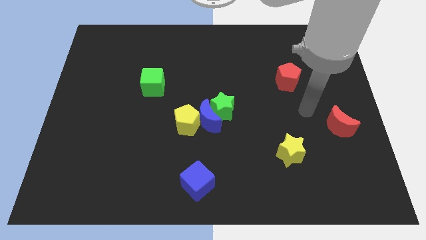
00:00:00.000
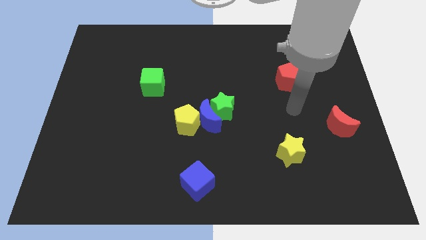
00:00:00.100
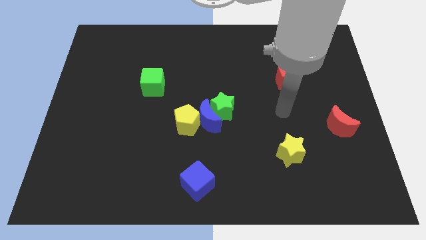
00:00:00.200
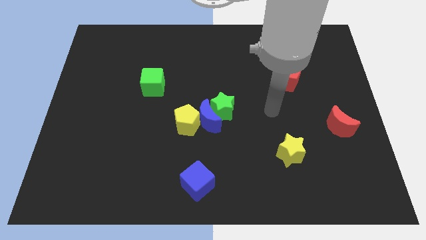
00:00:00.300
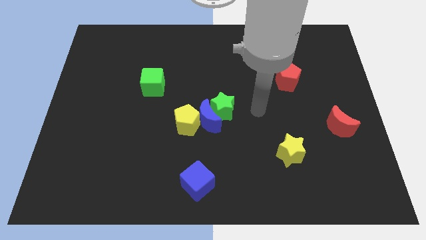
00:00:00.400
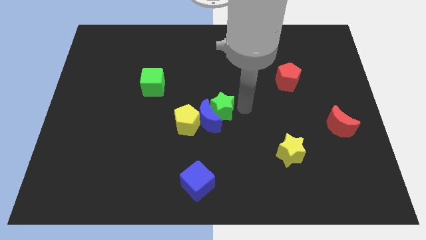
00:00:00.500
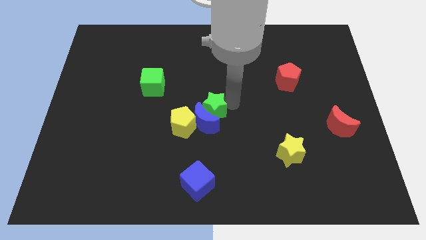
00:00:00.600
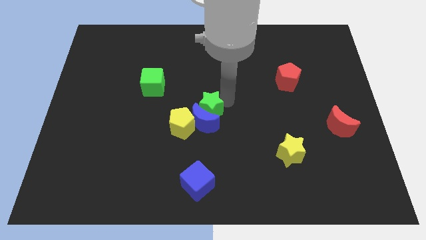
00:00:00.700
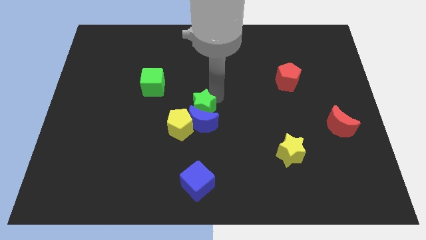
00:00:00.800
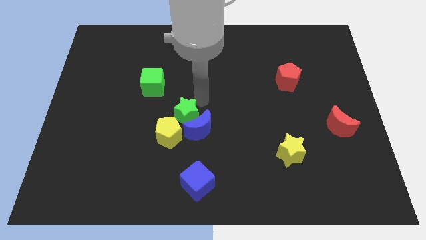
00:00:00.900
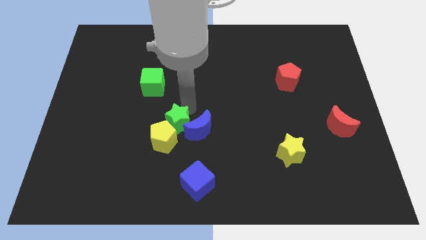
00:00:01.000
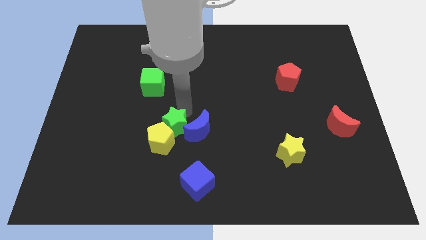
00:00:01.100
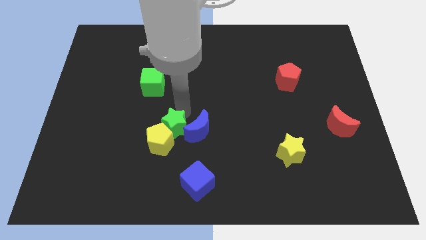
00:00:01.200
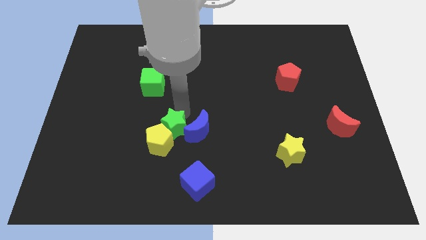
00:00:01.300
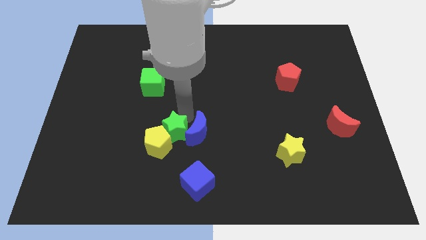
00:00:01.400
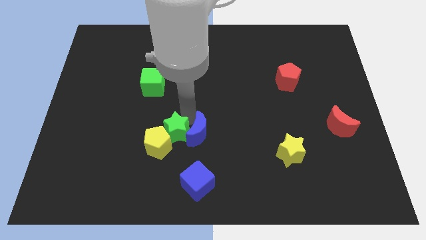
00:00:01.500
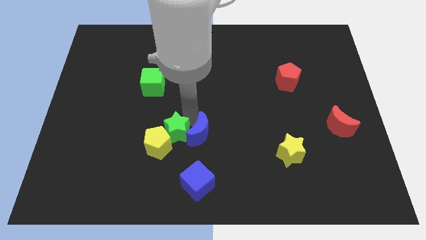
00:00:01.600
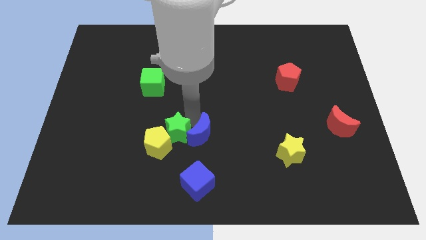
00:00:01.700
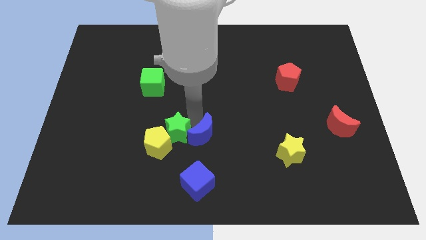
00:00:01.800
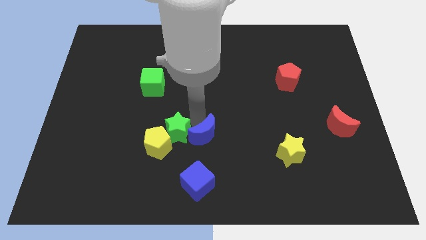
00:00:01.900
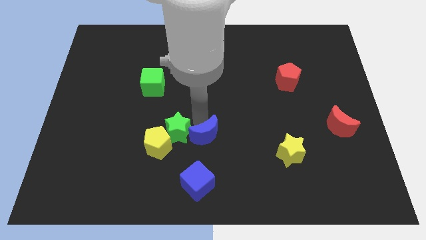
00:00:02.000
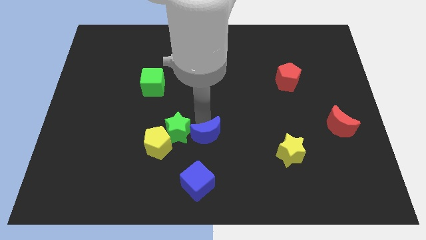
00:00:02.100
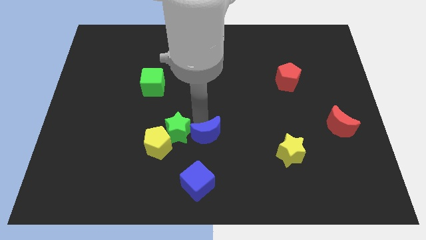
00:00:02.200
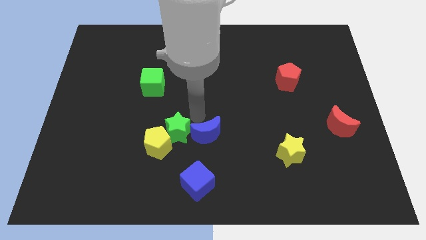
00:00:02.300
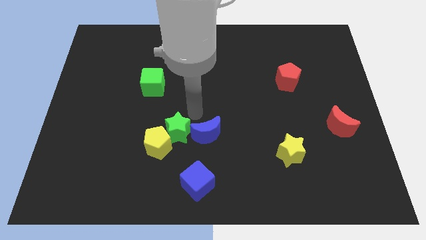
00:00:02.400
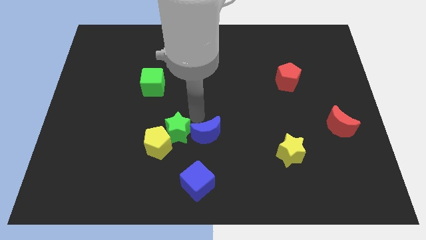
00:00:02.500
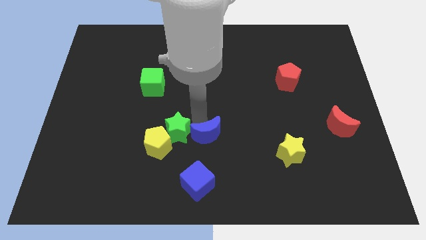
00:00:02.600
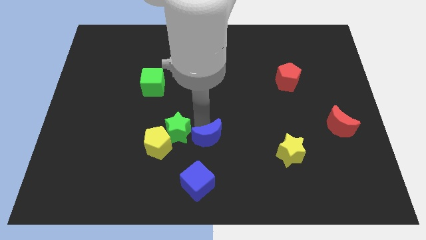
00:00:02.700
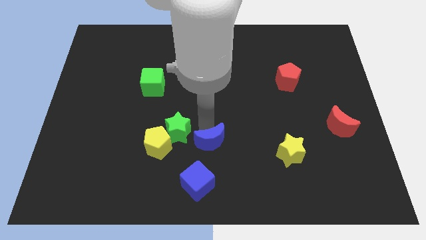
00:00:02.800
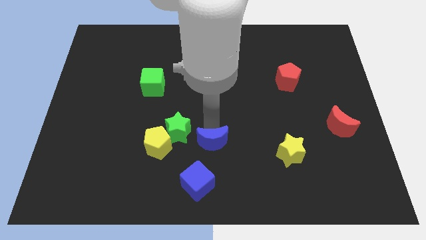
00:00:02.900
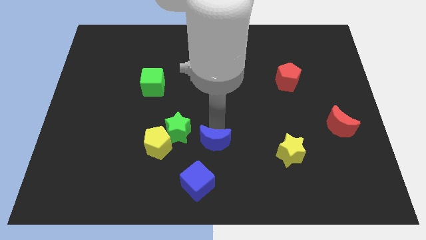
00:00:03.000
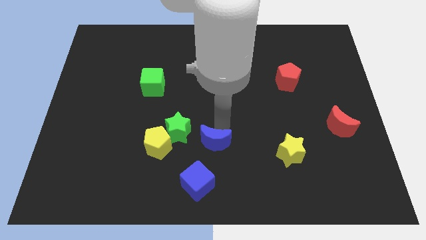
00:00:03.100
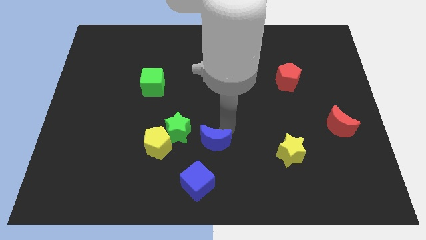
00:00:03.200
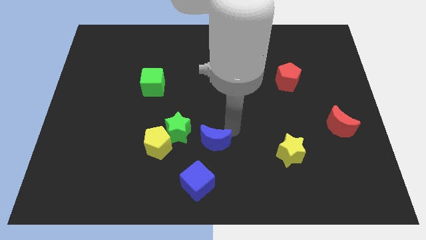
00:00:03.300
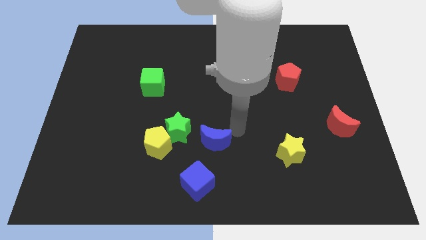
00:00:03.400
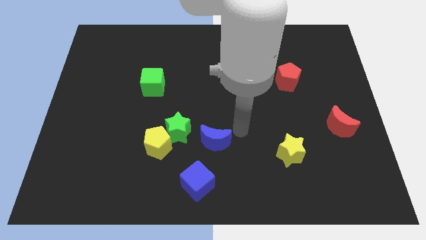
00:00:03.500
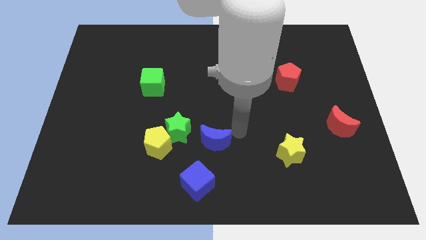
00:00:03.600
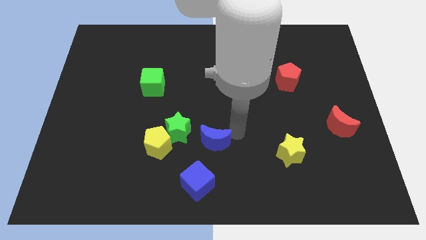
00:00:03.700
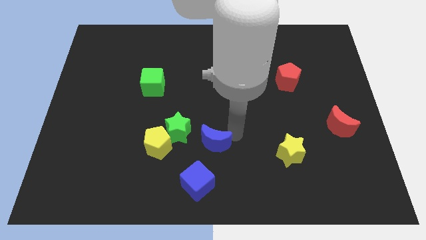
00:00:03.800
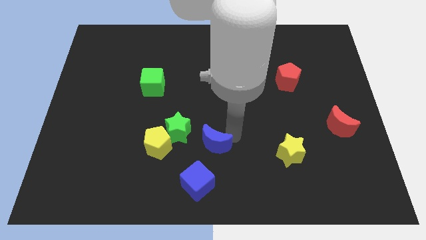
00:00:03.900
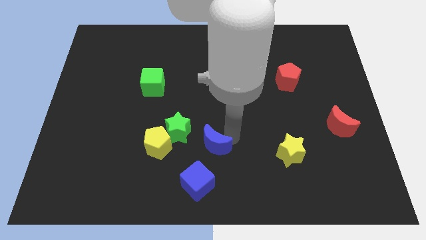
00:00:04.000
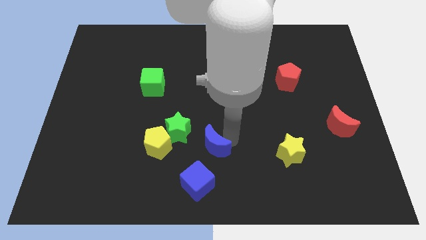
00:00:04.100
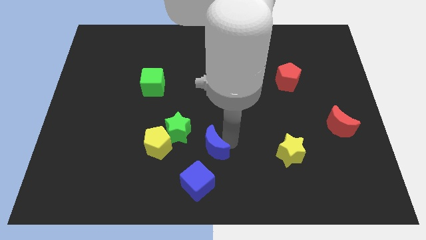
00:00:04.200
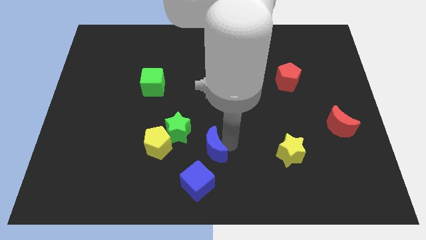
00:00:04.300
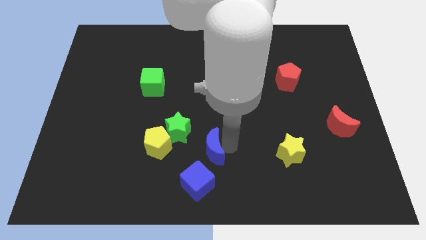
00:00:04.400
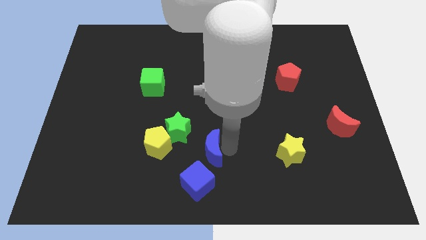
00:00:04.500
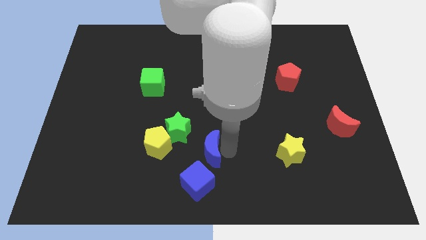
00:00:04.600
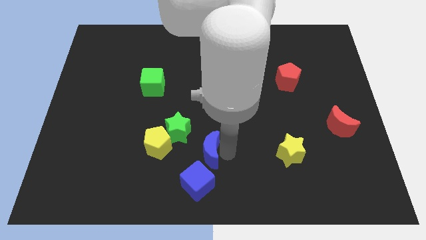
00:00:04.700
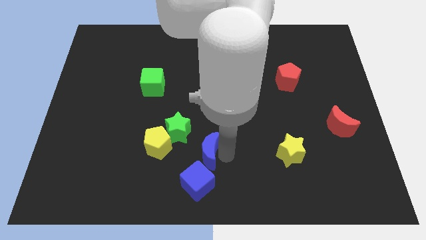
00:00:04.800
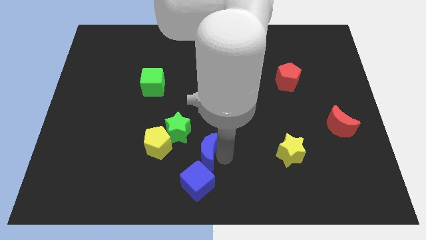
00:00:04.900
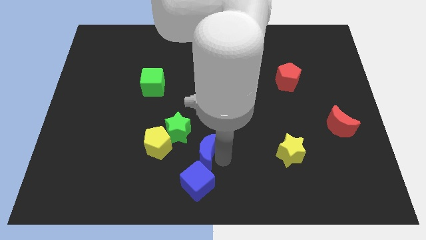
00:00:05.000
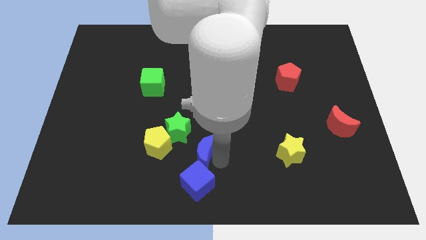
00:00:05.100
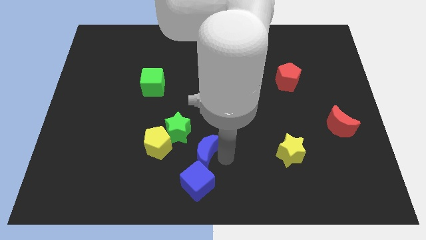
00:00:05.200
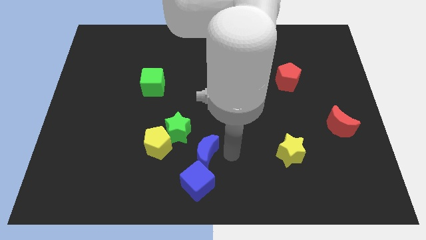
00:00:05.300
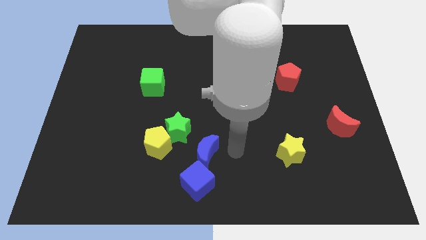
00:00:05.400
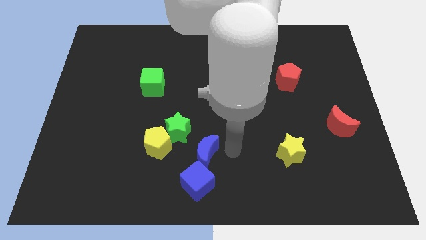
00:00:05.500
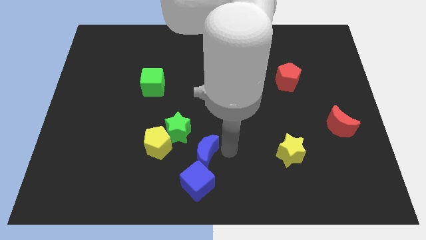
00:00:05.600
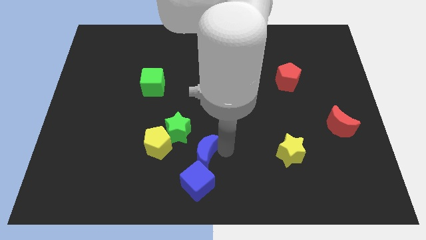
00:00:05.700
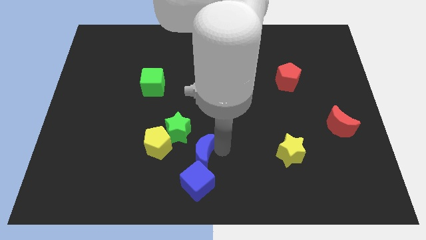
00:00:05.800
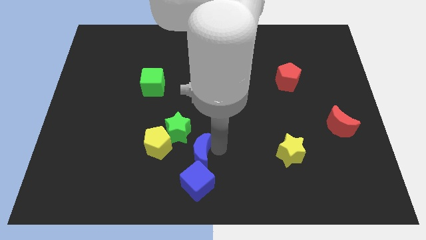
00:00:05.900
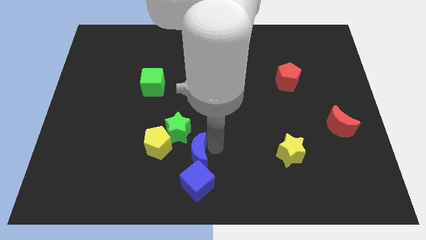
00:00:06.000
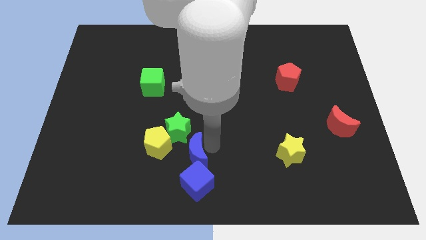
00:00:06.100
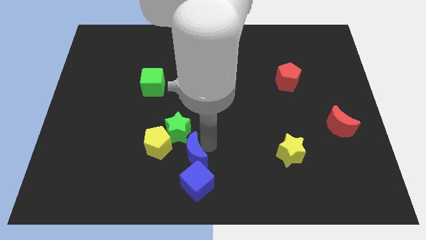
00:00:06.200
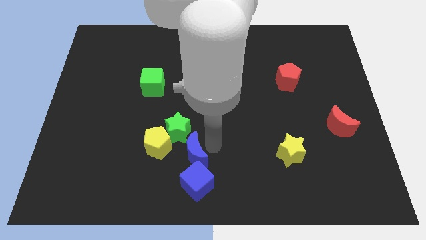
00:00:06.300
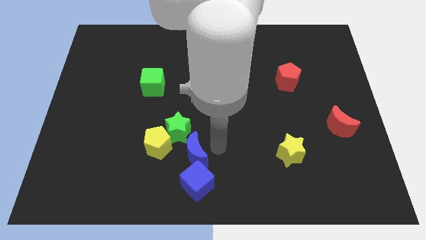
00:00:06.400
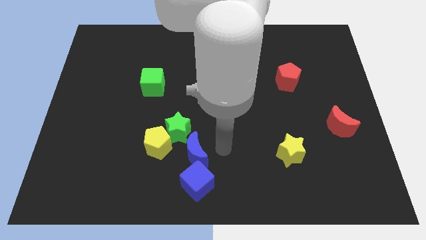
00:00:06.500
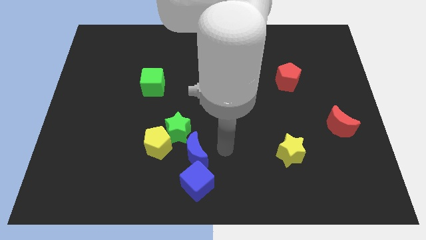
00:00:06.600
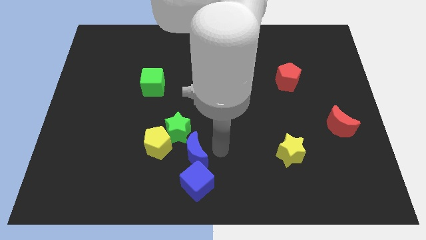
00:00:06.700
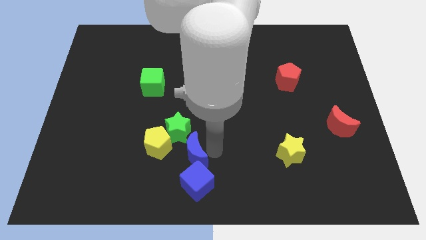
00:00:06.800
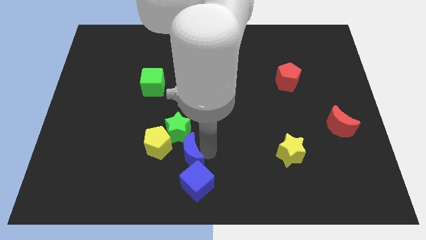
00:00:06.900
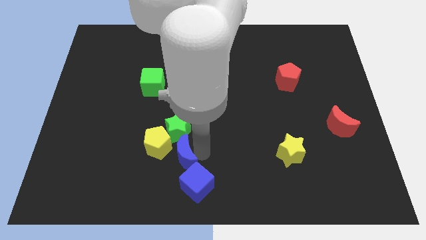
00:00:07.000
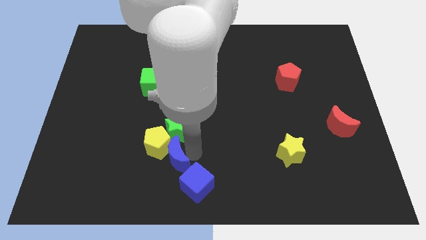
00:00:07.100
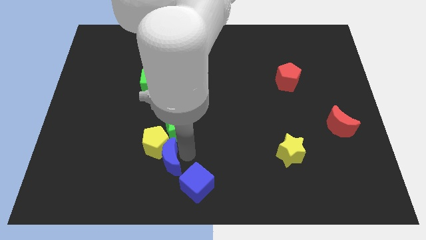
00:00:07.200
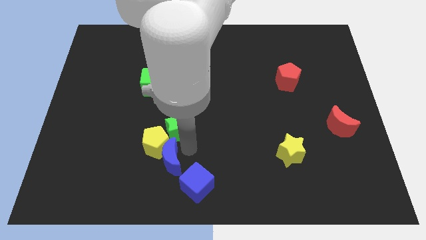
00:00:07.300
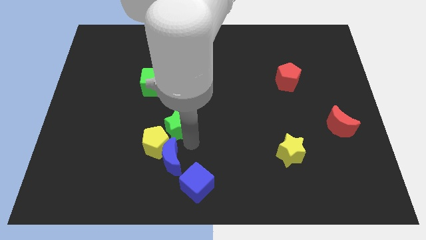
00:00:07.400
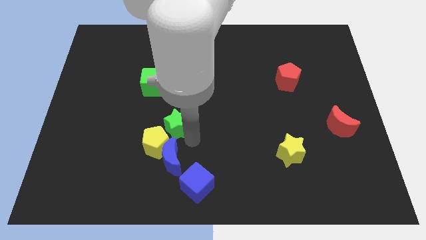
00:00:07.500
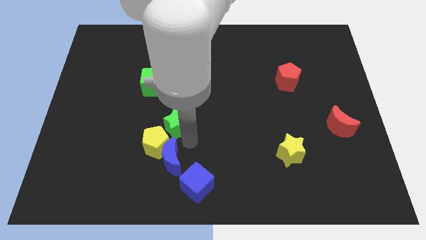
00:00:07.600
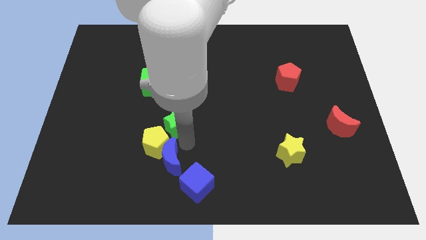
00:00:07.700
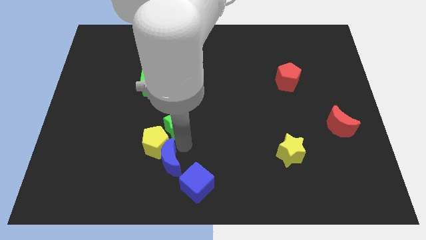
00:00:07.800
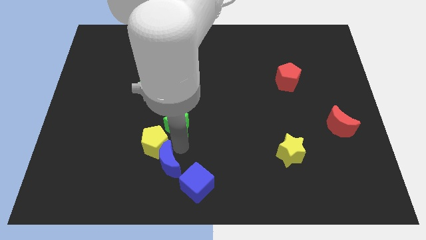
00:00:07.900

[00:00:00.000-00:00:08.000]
slide the blue moon to the left side of the blue cube
